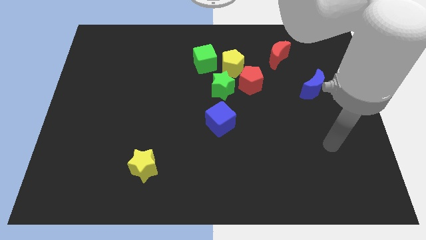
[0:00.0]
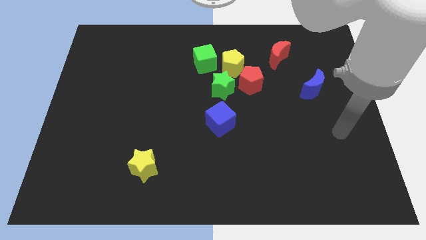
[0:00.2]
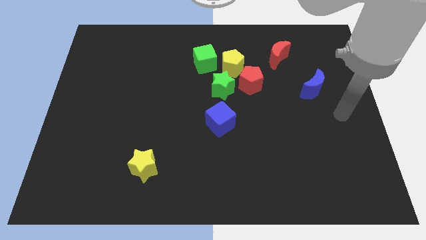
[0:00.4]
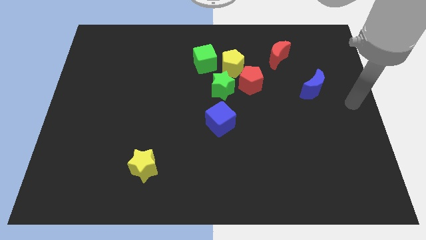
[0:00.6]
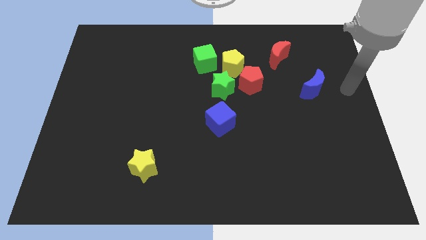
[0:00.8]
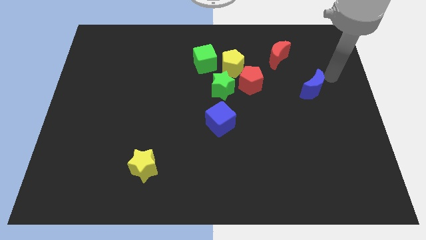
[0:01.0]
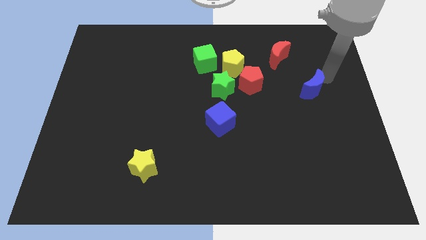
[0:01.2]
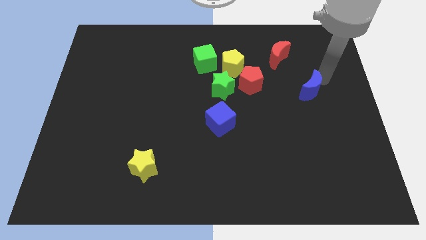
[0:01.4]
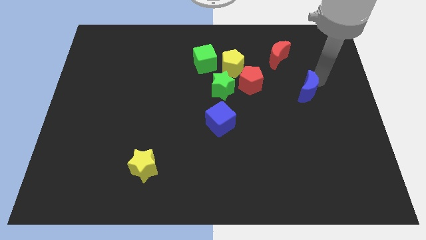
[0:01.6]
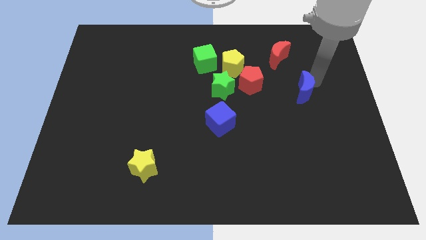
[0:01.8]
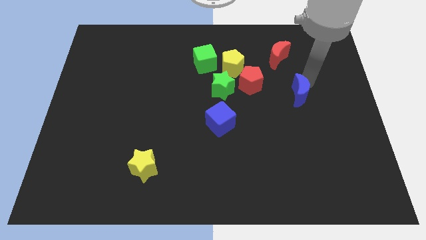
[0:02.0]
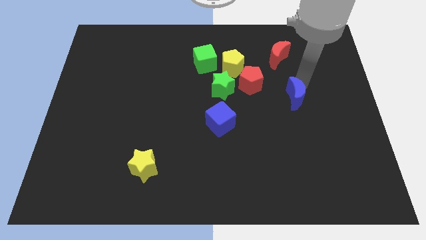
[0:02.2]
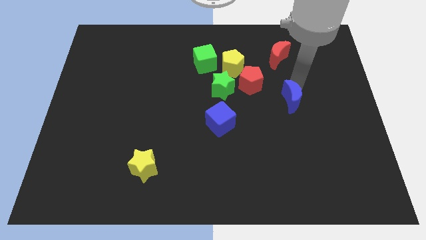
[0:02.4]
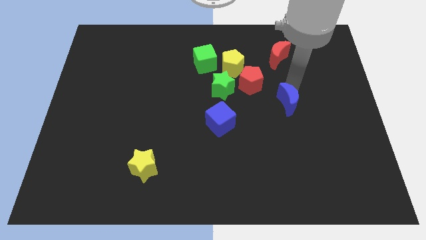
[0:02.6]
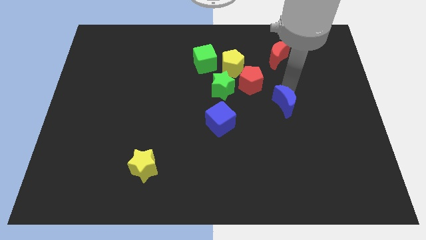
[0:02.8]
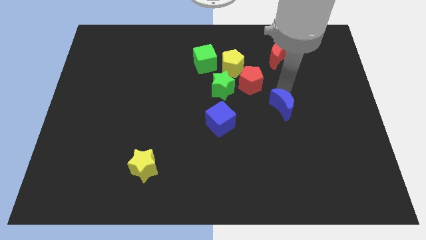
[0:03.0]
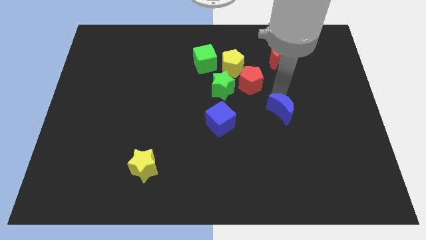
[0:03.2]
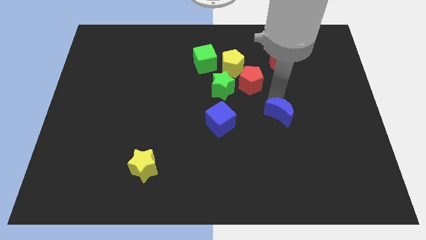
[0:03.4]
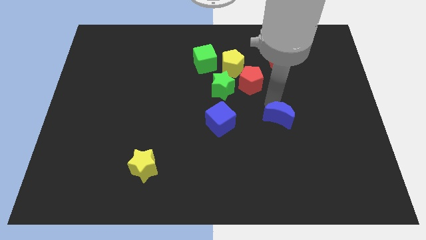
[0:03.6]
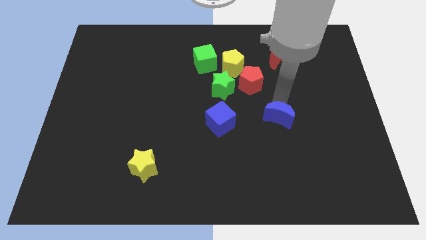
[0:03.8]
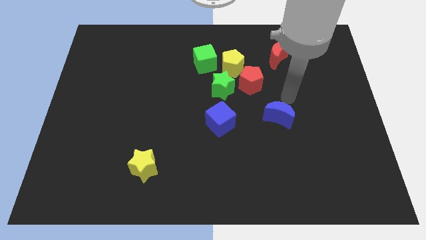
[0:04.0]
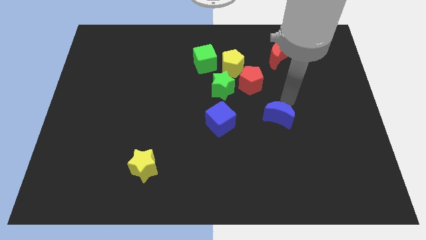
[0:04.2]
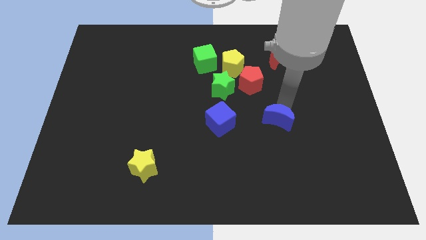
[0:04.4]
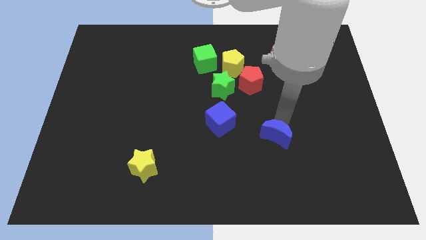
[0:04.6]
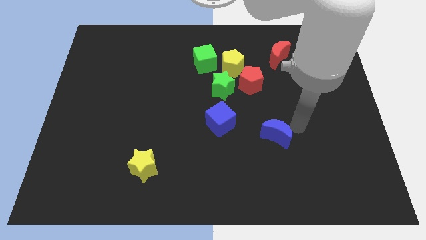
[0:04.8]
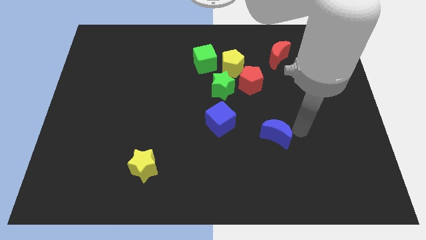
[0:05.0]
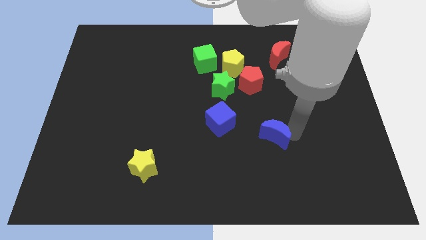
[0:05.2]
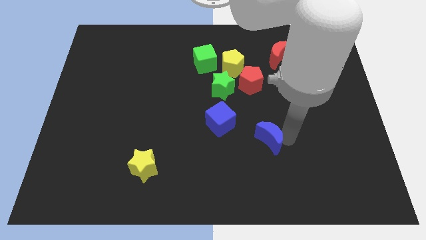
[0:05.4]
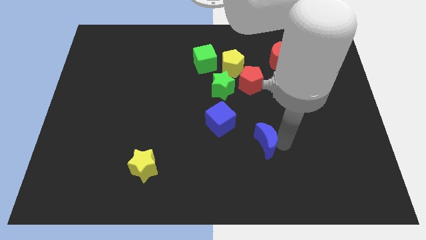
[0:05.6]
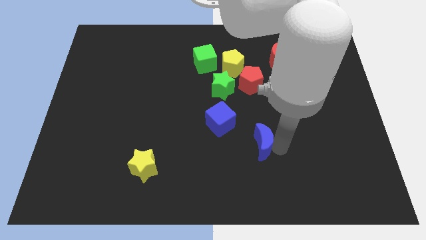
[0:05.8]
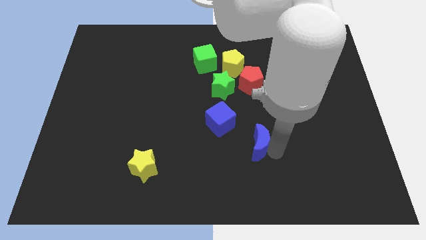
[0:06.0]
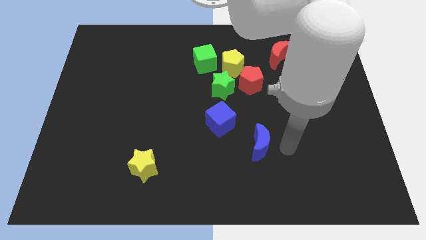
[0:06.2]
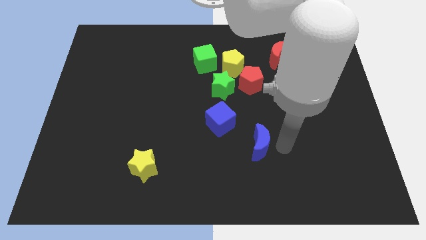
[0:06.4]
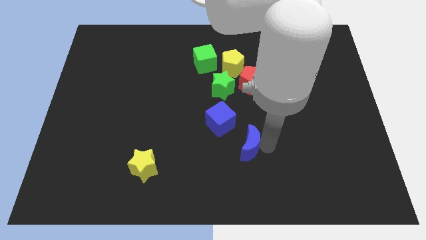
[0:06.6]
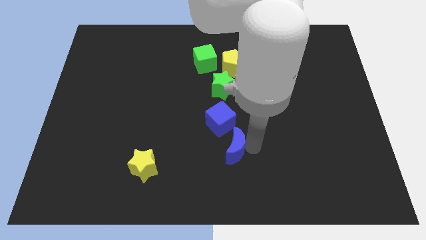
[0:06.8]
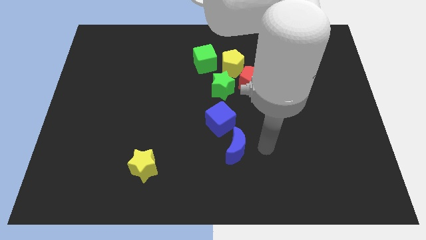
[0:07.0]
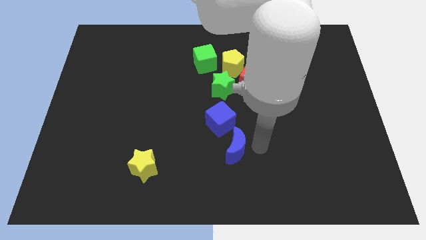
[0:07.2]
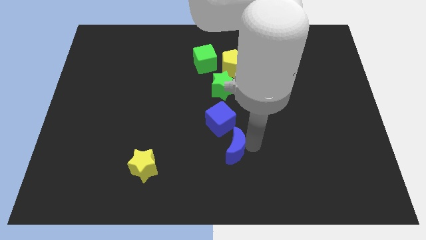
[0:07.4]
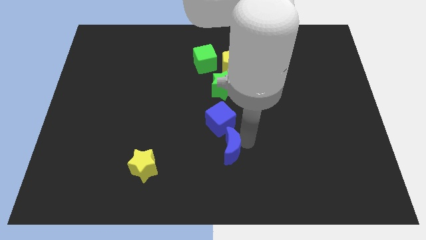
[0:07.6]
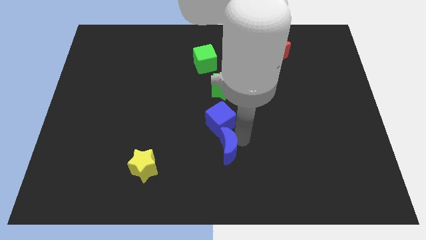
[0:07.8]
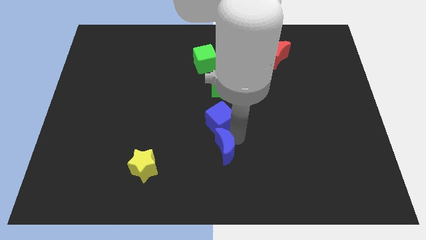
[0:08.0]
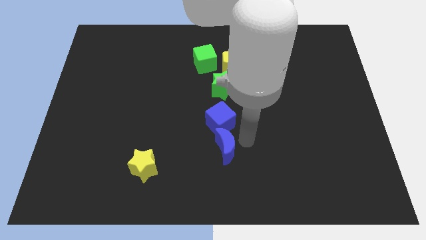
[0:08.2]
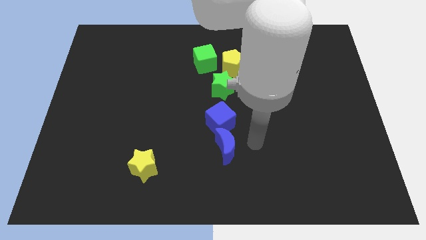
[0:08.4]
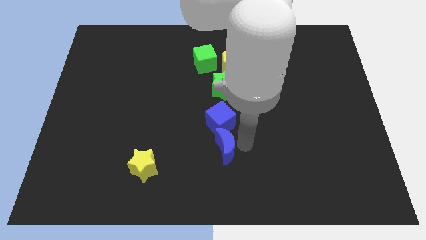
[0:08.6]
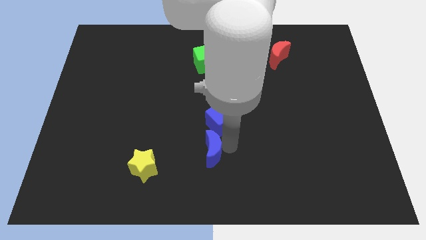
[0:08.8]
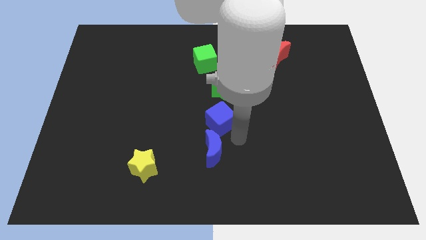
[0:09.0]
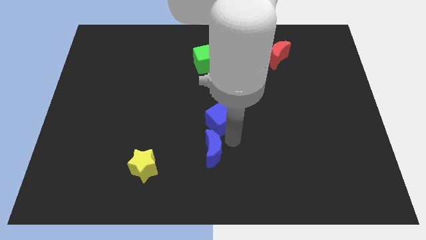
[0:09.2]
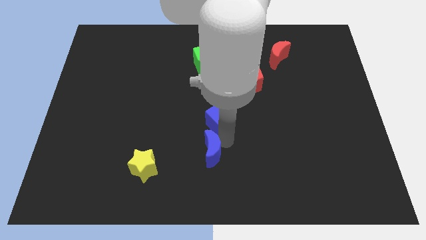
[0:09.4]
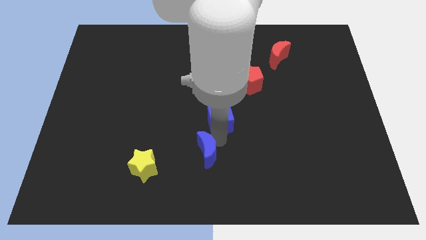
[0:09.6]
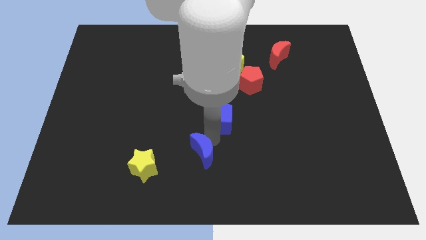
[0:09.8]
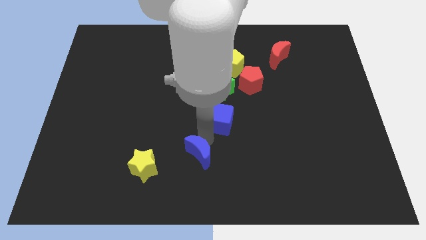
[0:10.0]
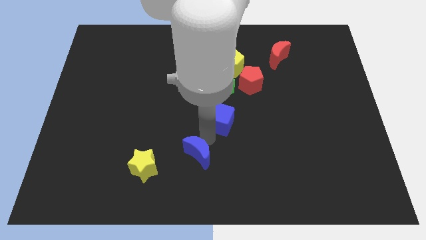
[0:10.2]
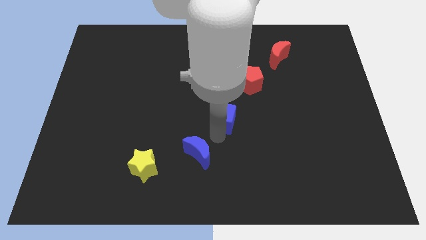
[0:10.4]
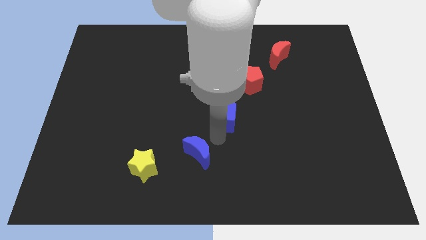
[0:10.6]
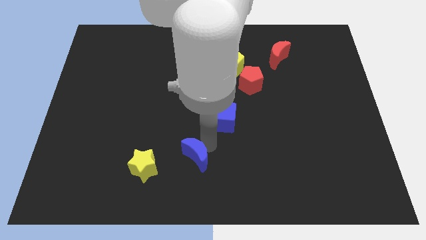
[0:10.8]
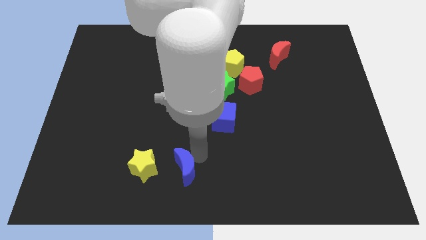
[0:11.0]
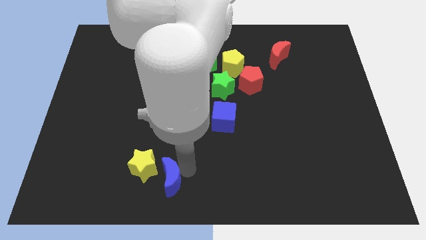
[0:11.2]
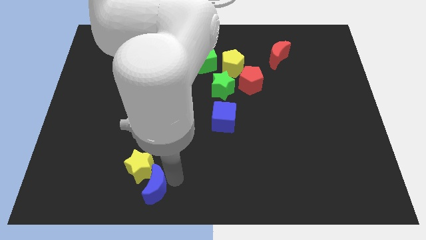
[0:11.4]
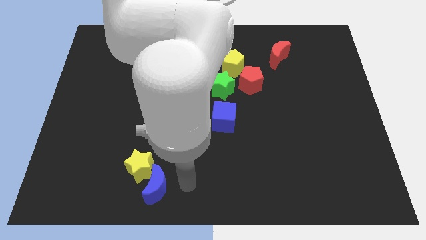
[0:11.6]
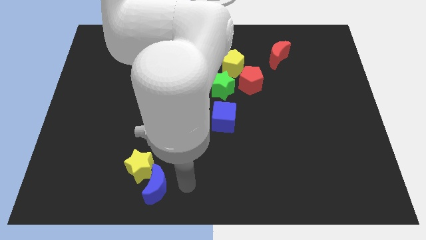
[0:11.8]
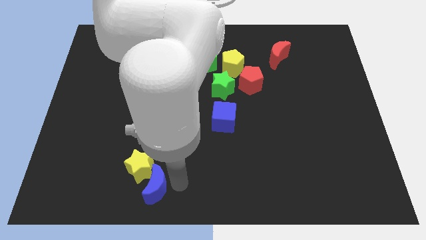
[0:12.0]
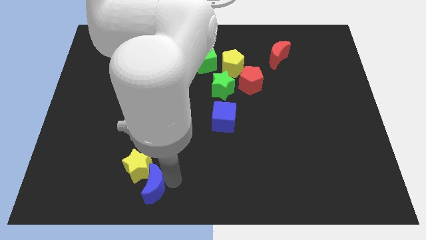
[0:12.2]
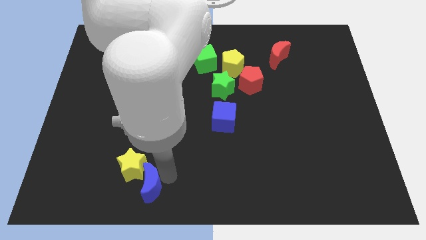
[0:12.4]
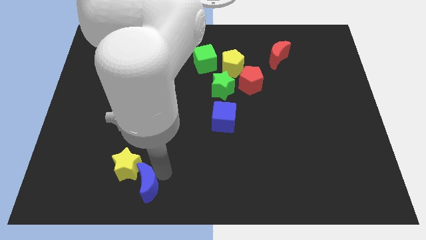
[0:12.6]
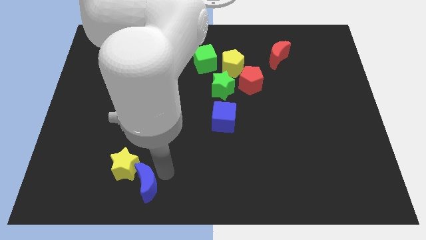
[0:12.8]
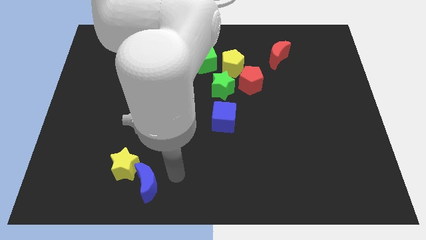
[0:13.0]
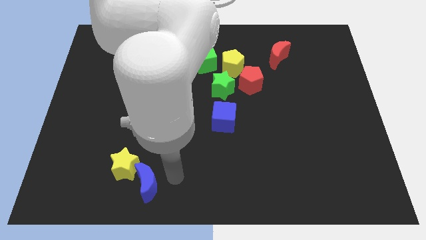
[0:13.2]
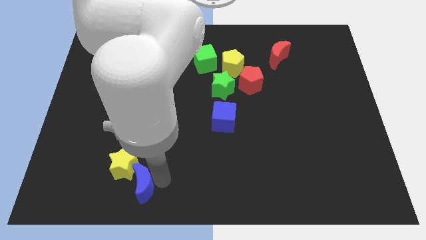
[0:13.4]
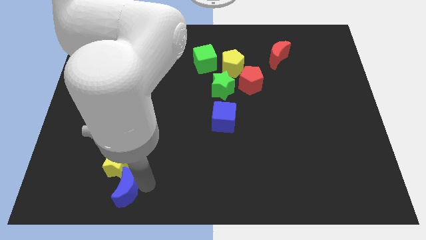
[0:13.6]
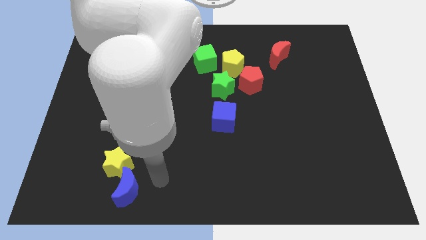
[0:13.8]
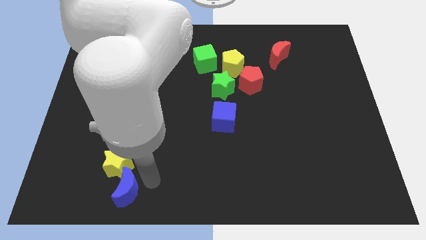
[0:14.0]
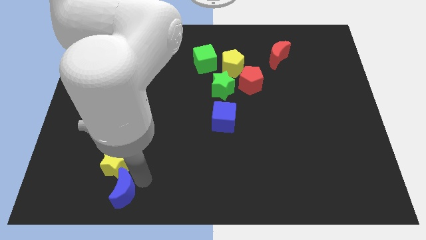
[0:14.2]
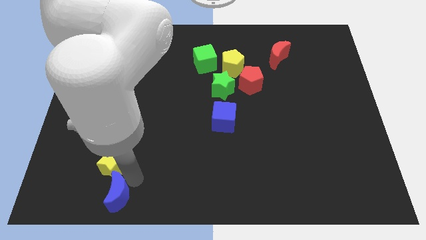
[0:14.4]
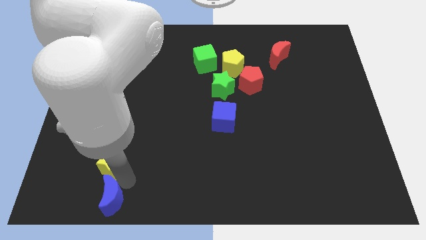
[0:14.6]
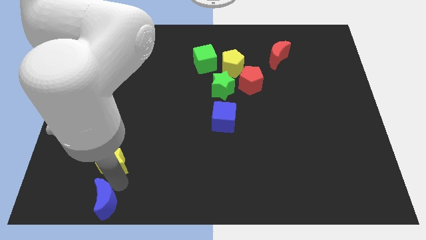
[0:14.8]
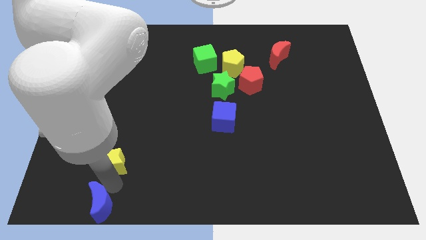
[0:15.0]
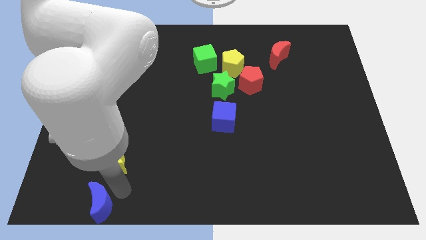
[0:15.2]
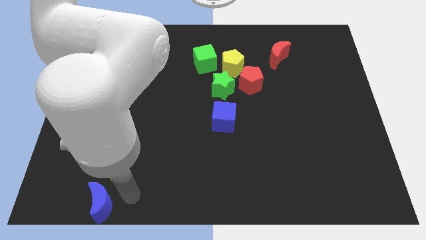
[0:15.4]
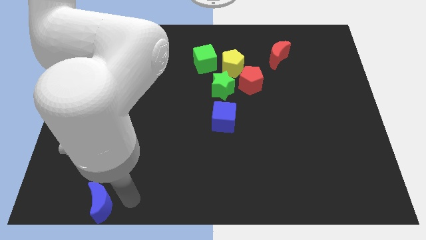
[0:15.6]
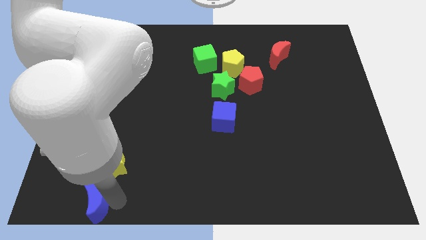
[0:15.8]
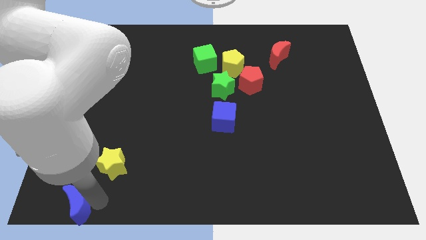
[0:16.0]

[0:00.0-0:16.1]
move the blue moon to the bottom left corner
